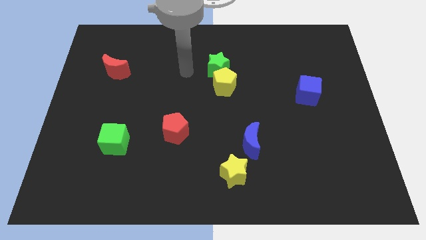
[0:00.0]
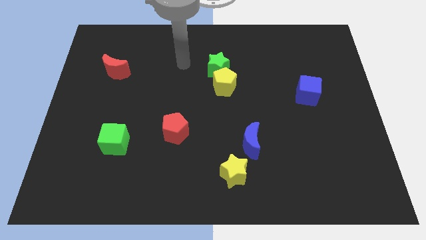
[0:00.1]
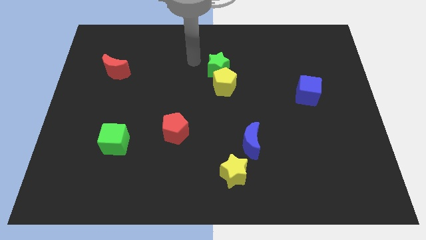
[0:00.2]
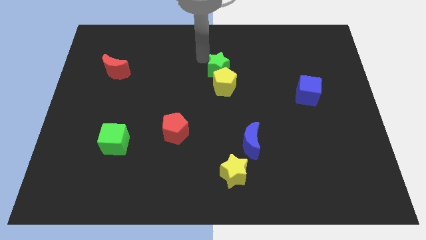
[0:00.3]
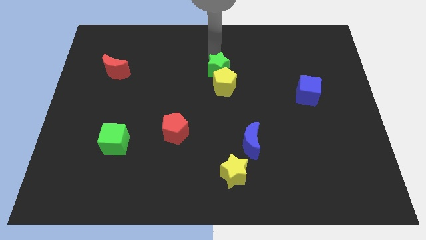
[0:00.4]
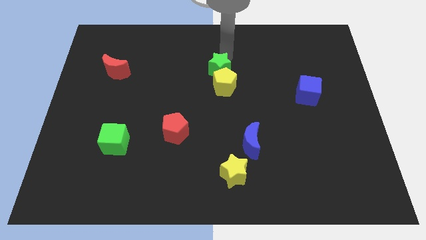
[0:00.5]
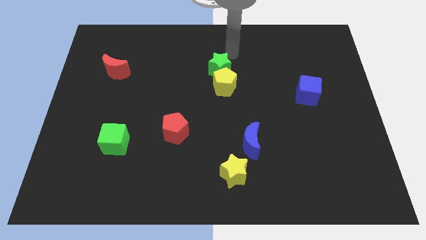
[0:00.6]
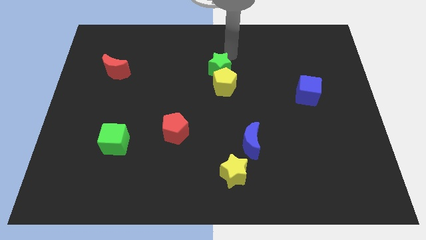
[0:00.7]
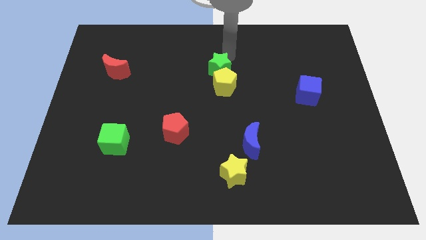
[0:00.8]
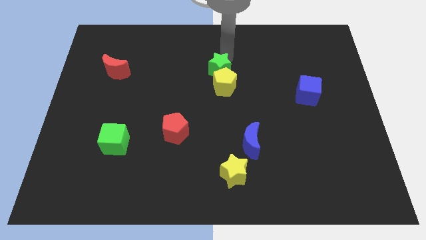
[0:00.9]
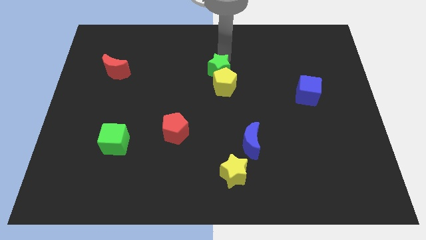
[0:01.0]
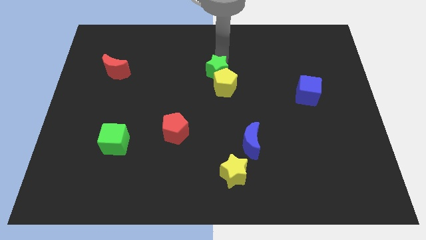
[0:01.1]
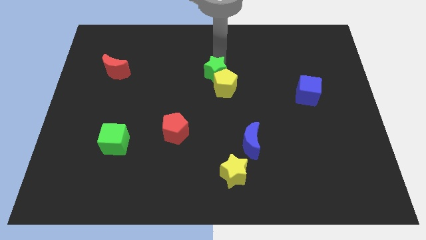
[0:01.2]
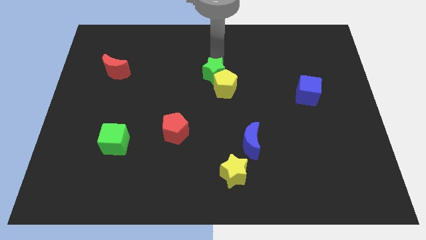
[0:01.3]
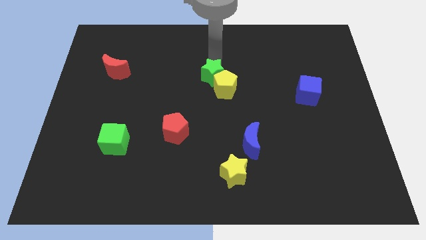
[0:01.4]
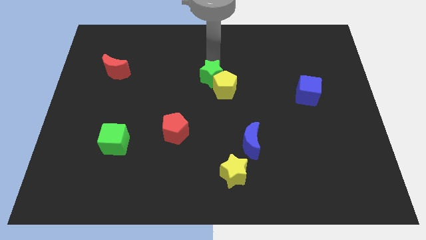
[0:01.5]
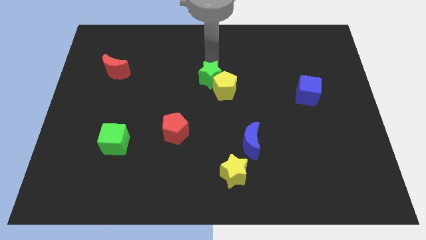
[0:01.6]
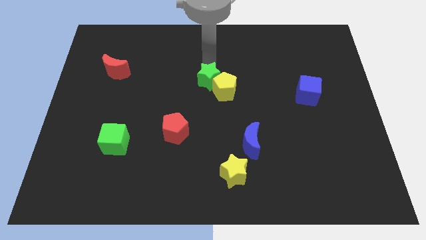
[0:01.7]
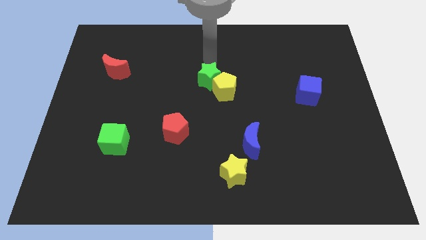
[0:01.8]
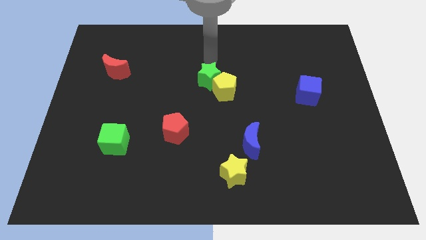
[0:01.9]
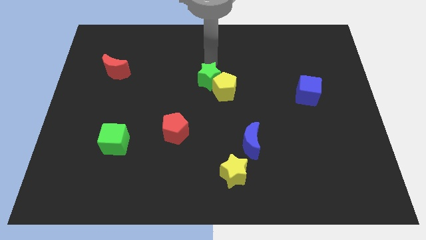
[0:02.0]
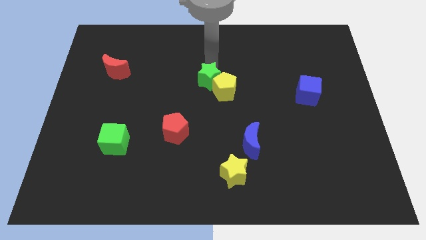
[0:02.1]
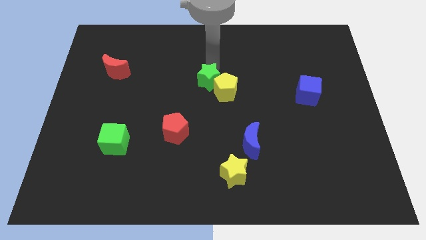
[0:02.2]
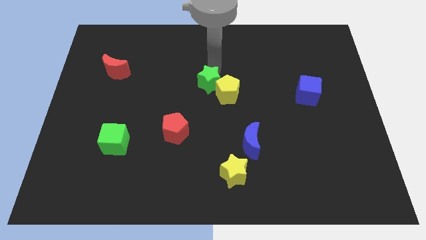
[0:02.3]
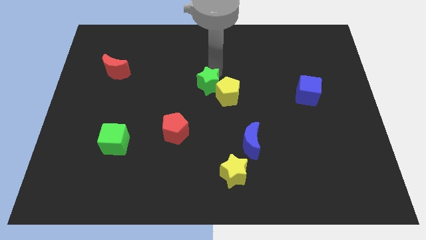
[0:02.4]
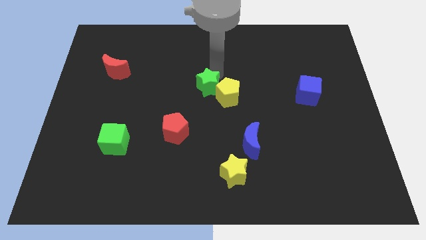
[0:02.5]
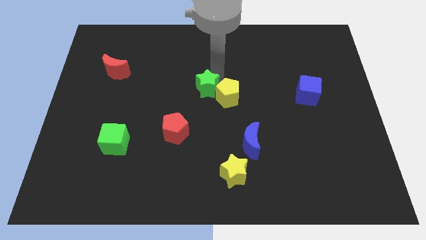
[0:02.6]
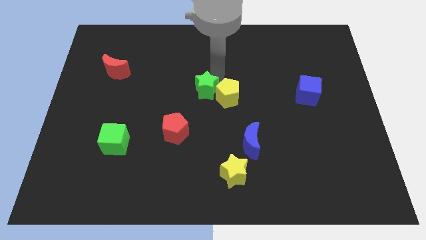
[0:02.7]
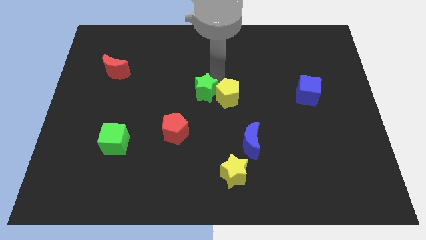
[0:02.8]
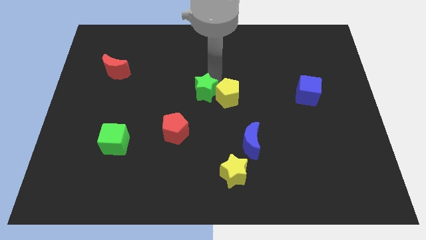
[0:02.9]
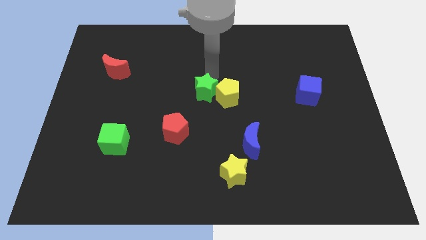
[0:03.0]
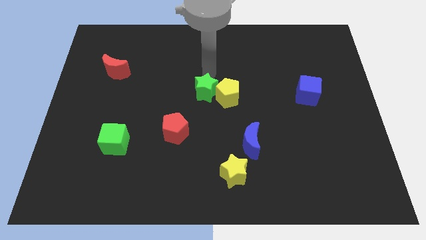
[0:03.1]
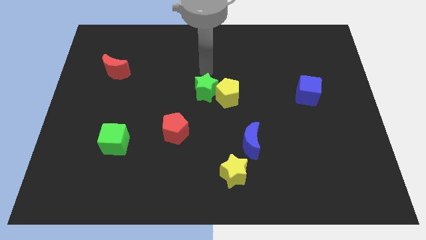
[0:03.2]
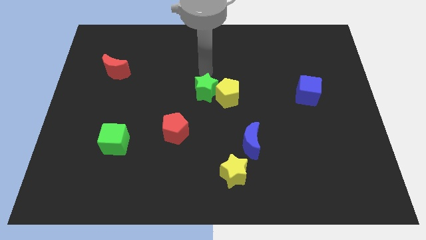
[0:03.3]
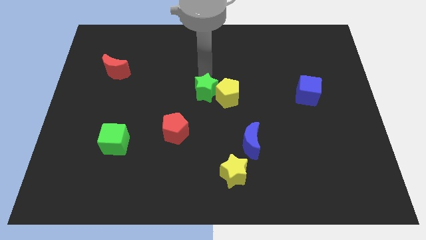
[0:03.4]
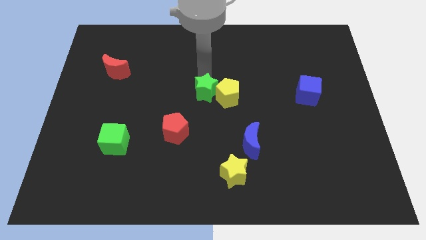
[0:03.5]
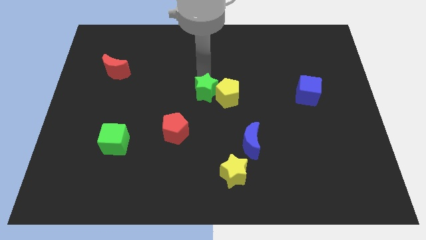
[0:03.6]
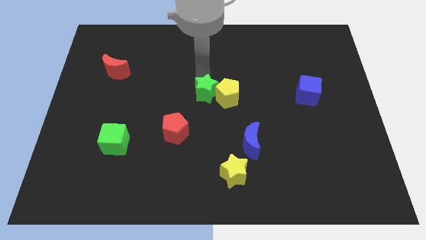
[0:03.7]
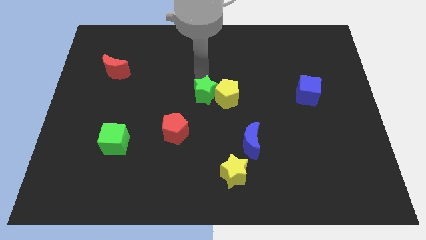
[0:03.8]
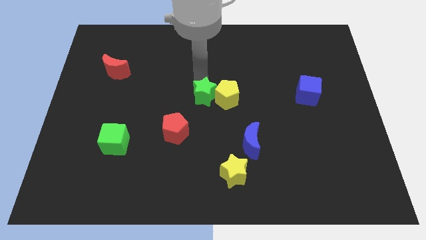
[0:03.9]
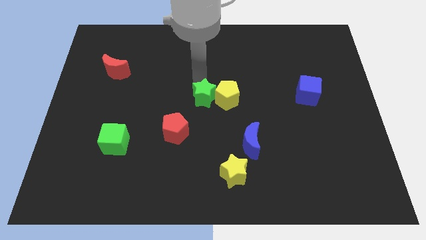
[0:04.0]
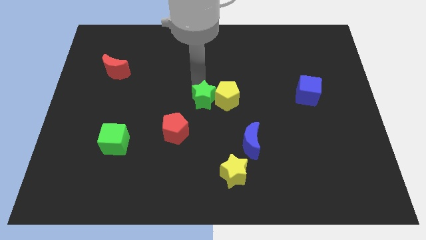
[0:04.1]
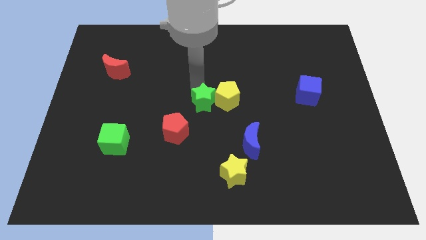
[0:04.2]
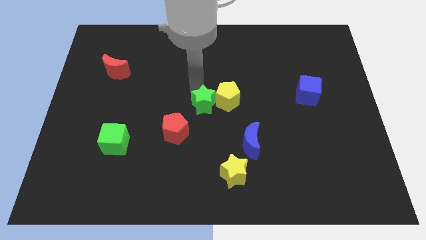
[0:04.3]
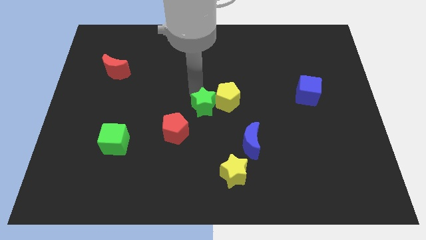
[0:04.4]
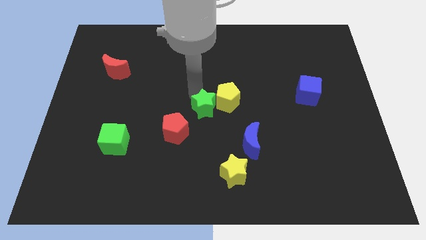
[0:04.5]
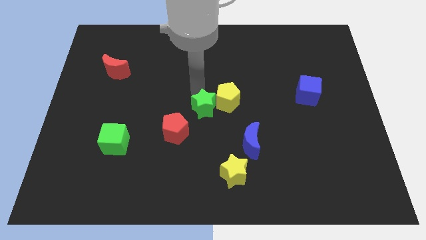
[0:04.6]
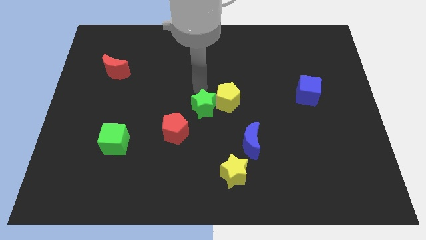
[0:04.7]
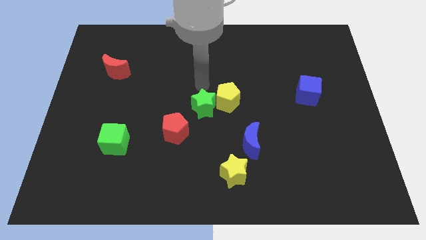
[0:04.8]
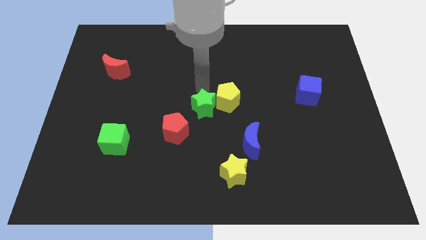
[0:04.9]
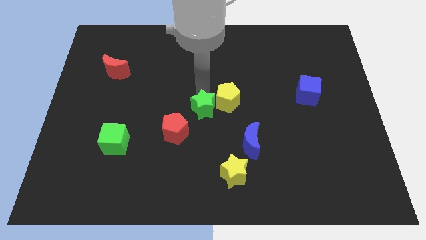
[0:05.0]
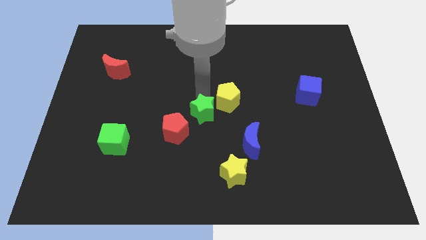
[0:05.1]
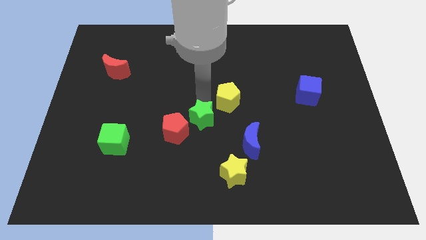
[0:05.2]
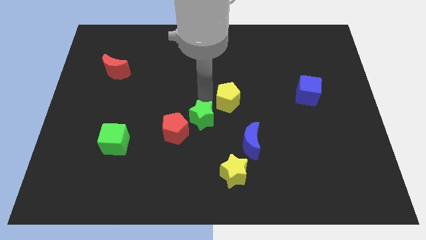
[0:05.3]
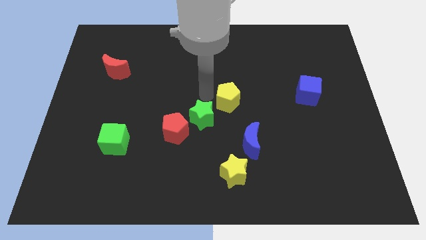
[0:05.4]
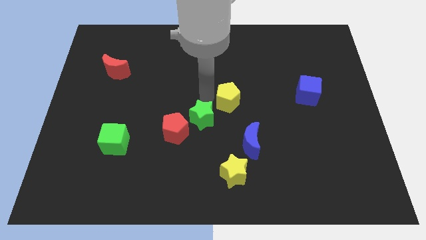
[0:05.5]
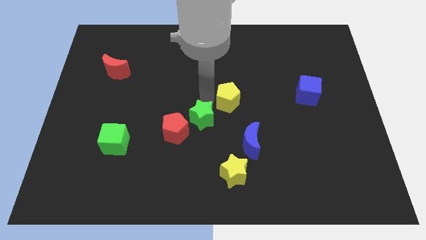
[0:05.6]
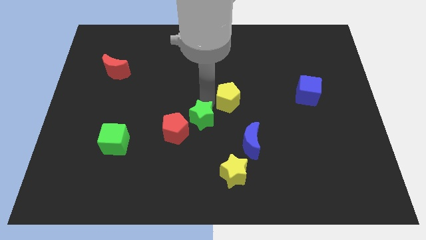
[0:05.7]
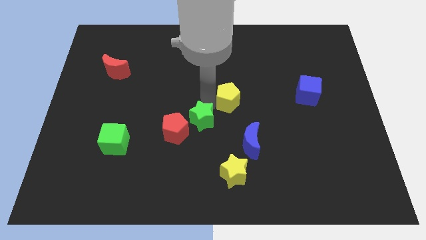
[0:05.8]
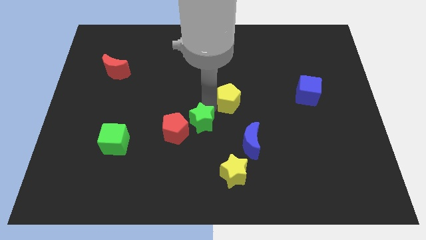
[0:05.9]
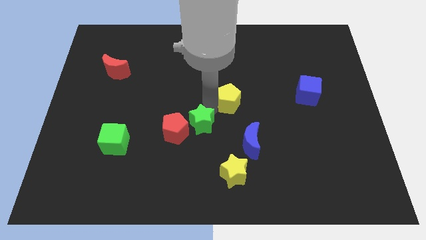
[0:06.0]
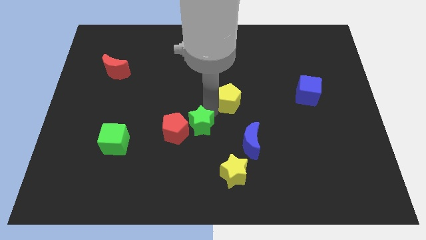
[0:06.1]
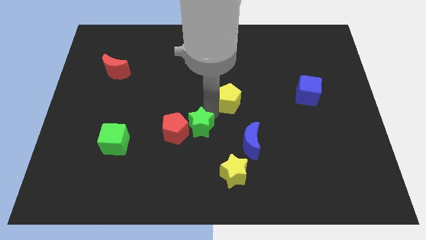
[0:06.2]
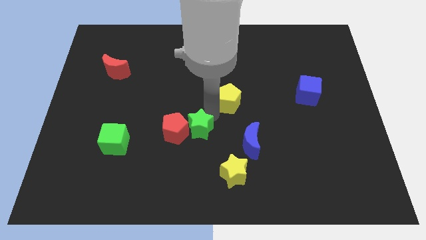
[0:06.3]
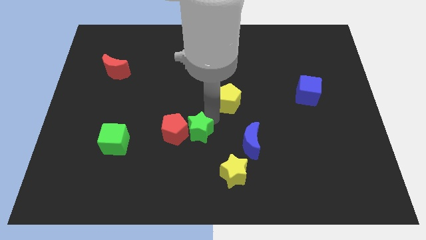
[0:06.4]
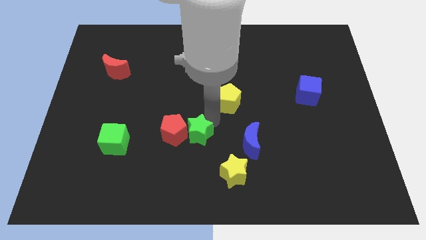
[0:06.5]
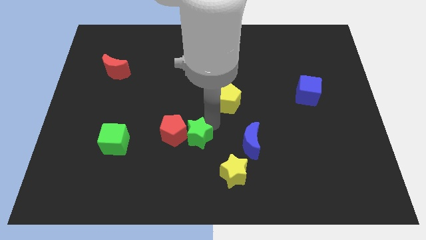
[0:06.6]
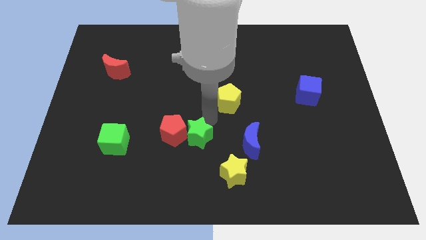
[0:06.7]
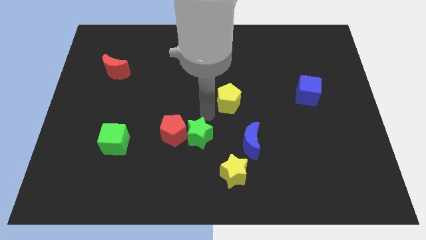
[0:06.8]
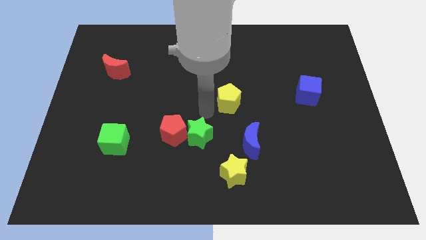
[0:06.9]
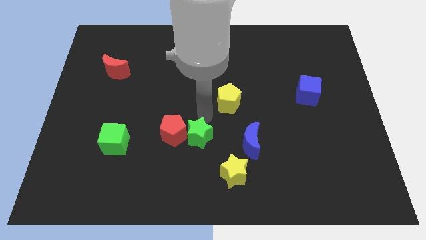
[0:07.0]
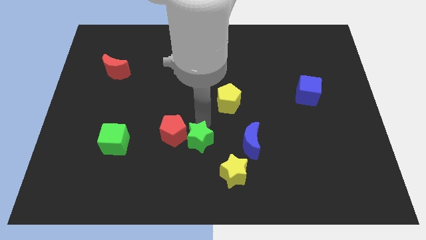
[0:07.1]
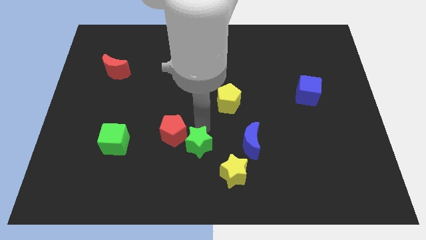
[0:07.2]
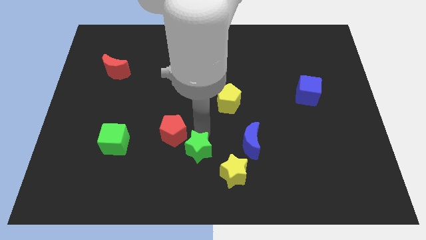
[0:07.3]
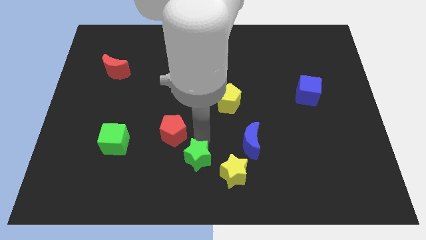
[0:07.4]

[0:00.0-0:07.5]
put the green star to the bottom side

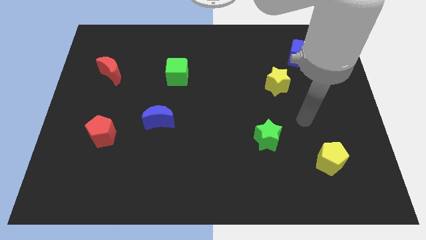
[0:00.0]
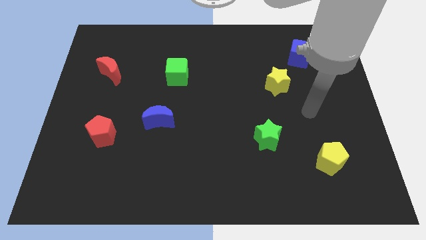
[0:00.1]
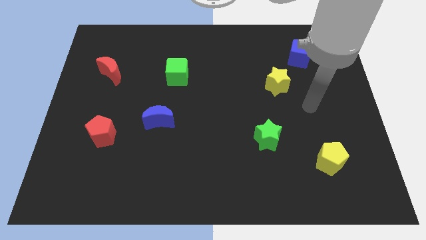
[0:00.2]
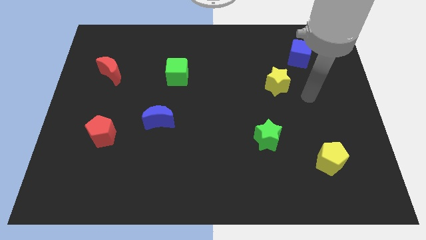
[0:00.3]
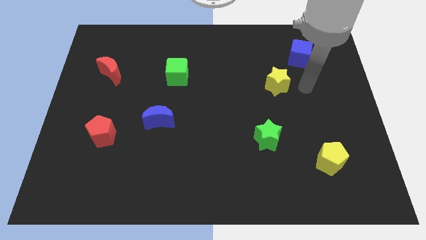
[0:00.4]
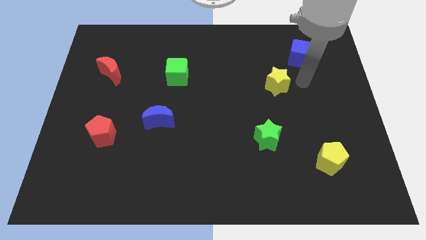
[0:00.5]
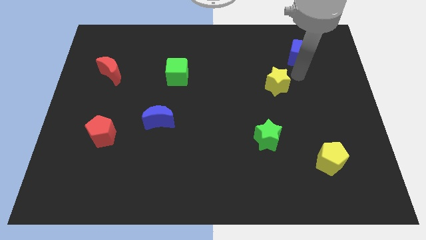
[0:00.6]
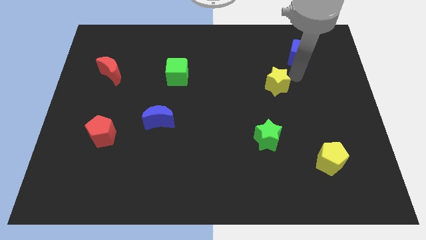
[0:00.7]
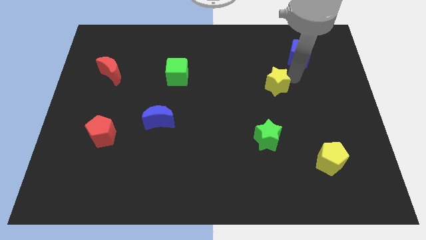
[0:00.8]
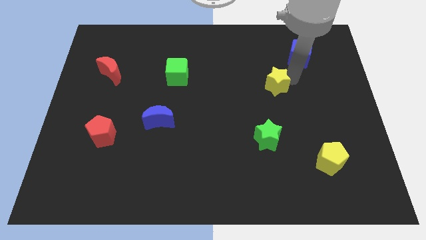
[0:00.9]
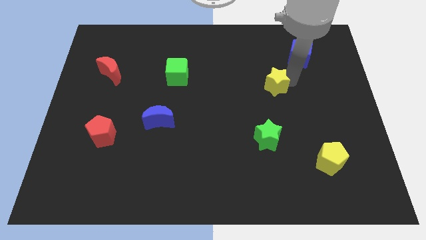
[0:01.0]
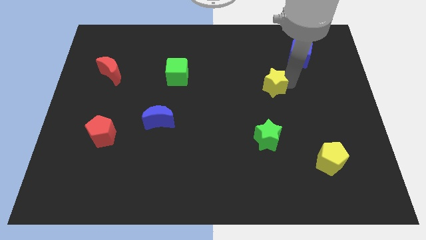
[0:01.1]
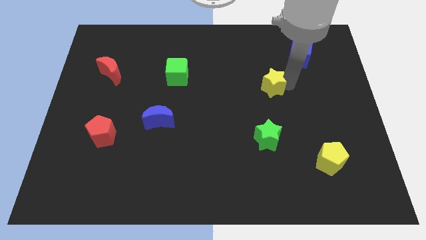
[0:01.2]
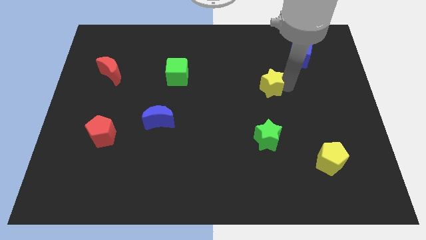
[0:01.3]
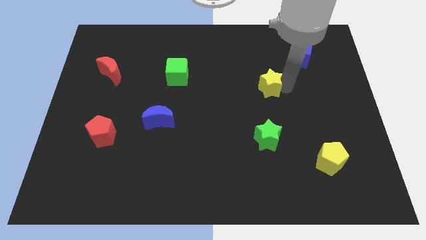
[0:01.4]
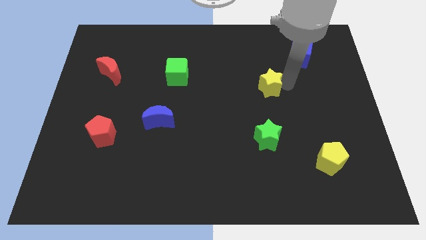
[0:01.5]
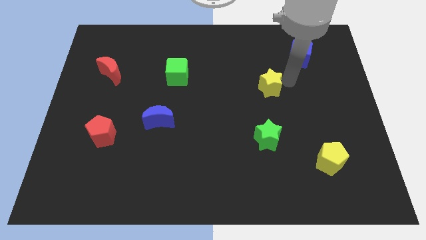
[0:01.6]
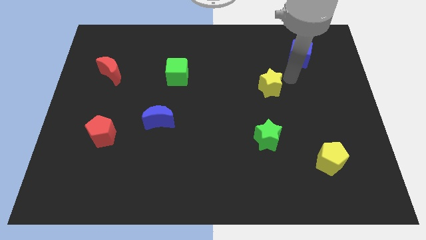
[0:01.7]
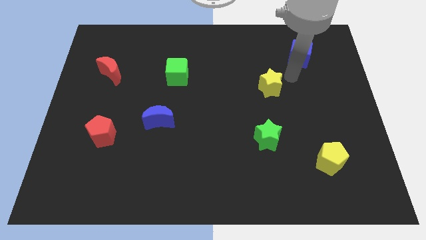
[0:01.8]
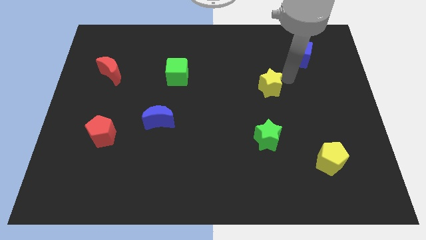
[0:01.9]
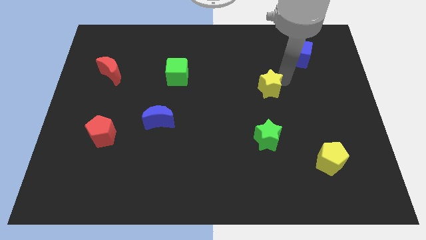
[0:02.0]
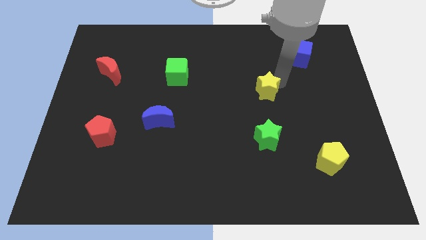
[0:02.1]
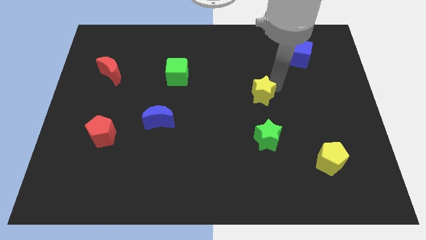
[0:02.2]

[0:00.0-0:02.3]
move the yellow star to the center of the board
